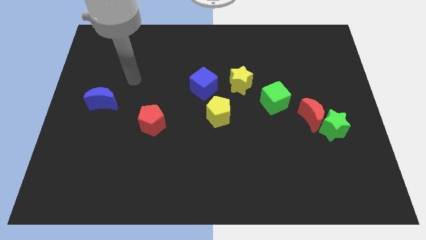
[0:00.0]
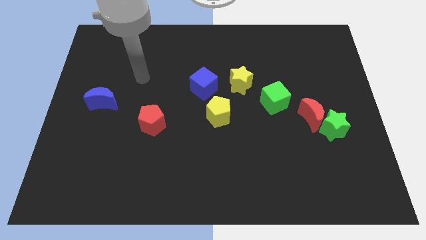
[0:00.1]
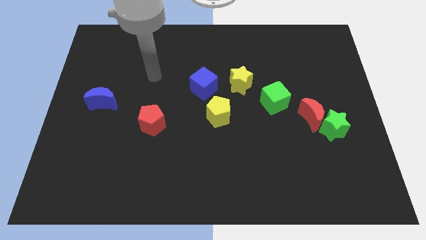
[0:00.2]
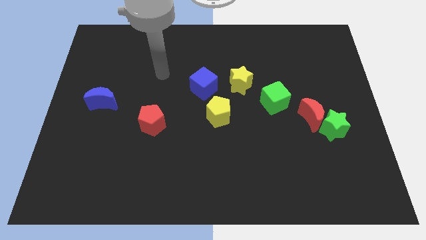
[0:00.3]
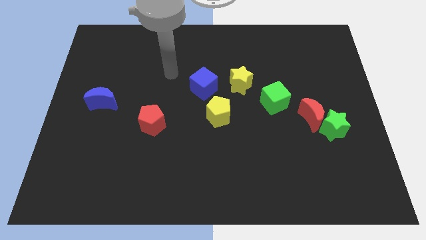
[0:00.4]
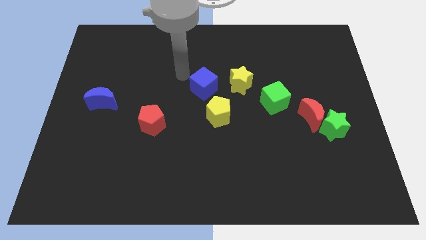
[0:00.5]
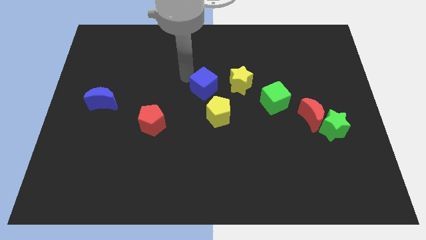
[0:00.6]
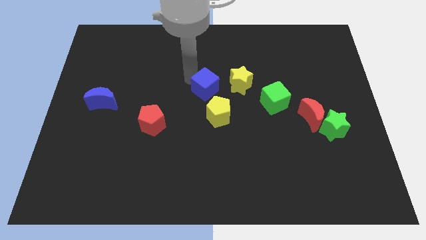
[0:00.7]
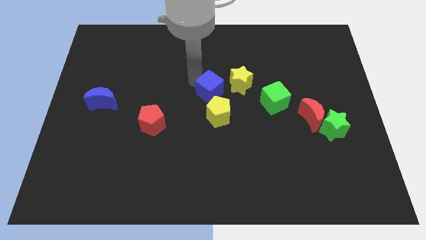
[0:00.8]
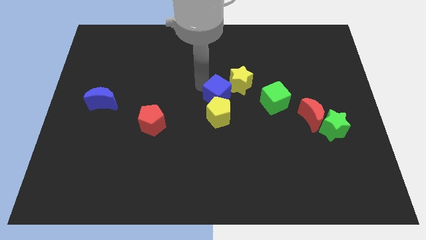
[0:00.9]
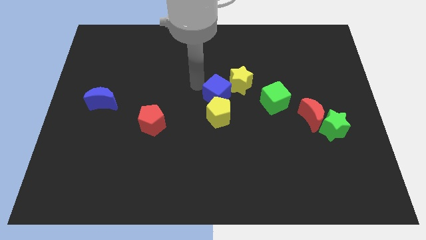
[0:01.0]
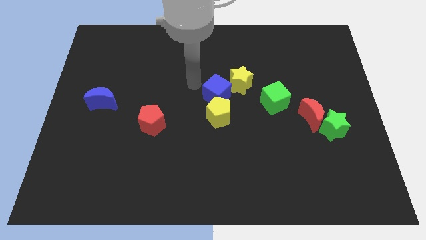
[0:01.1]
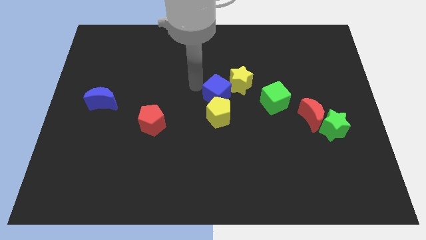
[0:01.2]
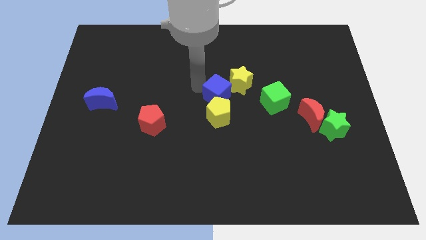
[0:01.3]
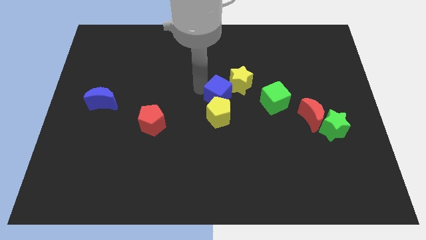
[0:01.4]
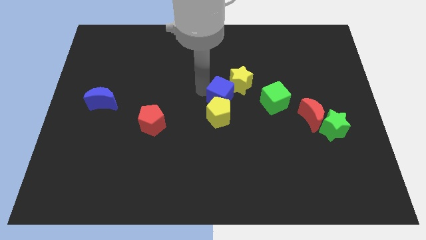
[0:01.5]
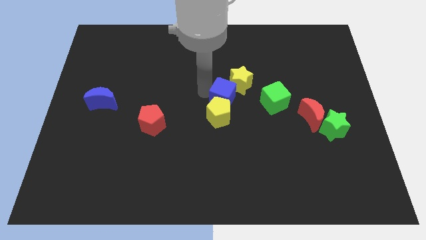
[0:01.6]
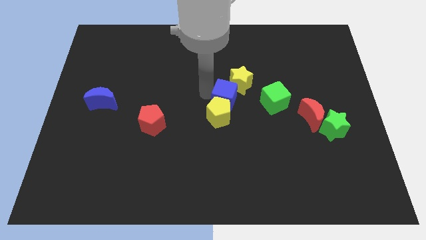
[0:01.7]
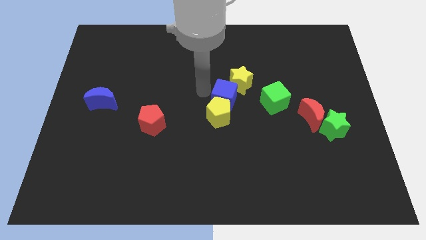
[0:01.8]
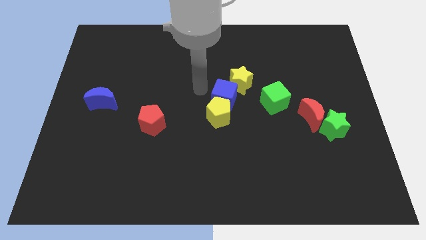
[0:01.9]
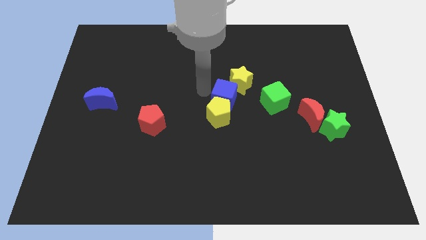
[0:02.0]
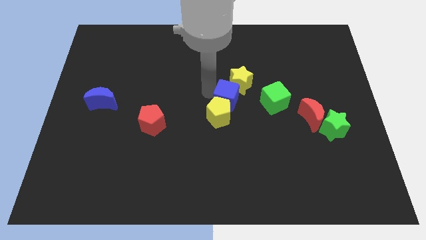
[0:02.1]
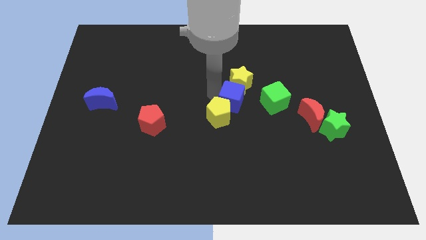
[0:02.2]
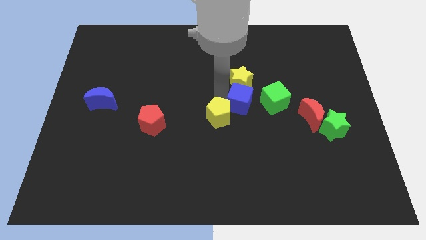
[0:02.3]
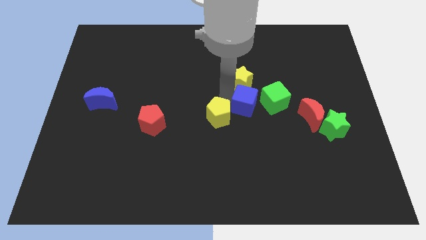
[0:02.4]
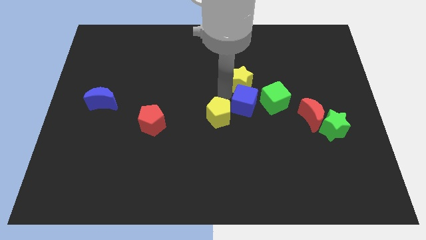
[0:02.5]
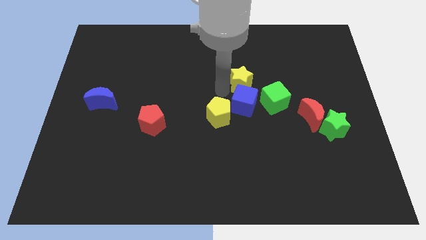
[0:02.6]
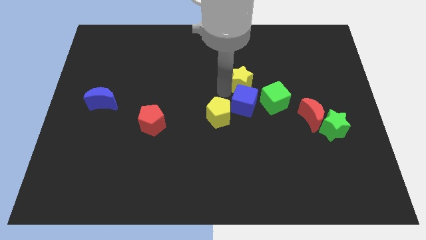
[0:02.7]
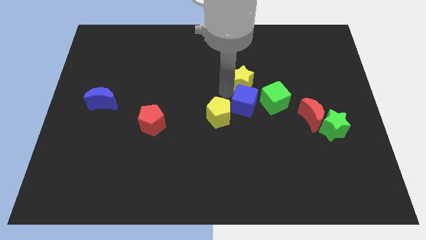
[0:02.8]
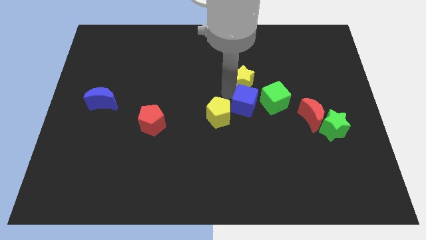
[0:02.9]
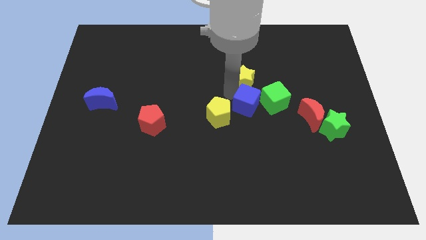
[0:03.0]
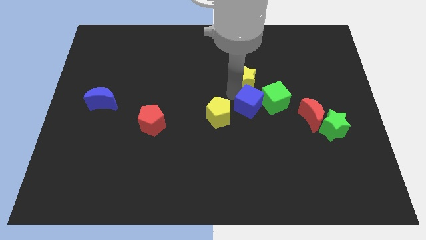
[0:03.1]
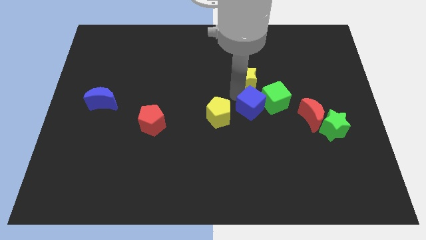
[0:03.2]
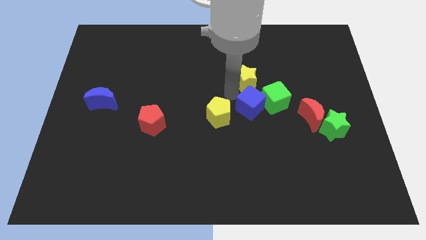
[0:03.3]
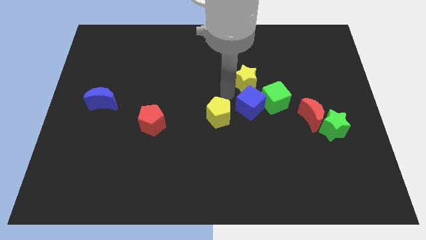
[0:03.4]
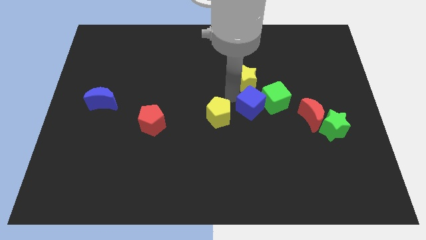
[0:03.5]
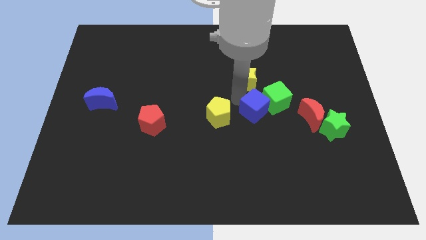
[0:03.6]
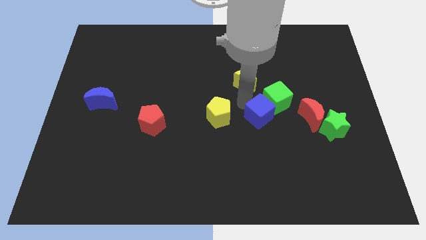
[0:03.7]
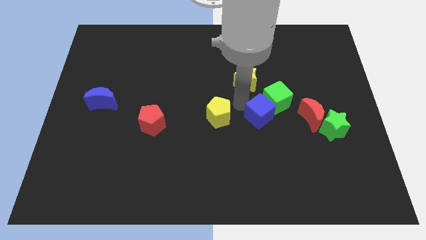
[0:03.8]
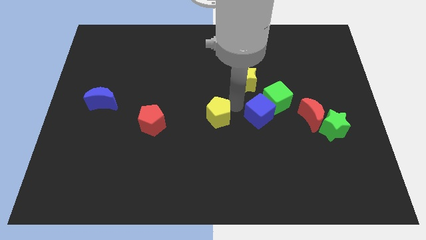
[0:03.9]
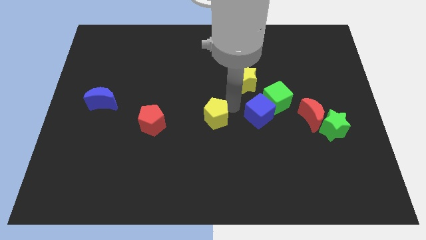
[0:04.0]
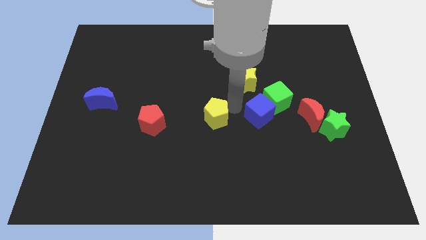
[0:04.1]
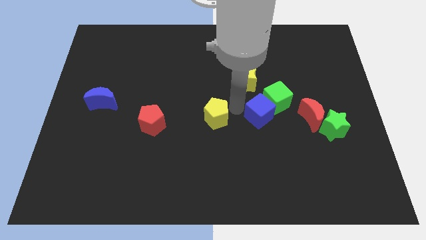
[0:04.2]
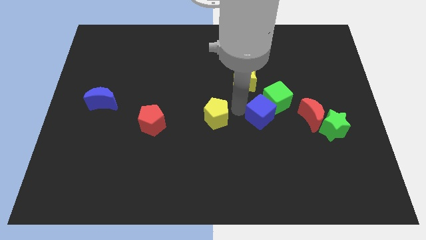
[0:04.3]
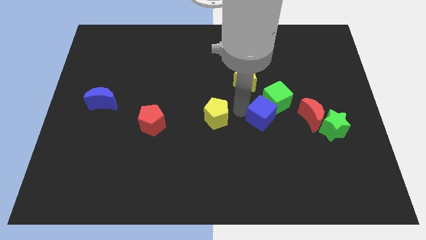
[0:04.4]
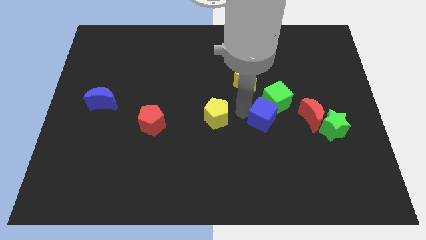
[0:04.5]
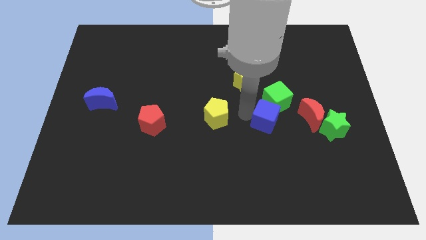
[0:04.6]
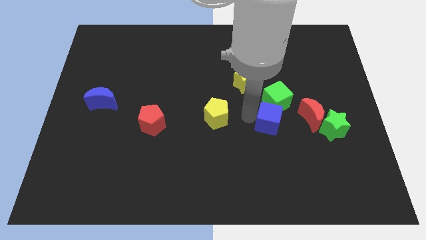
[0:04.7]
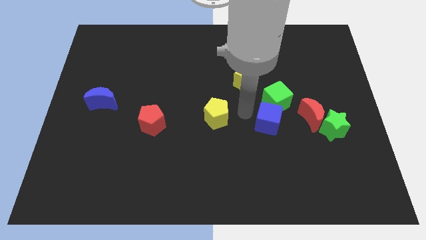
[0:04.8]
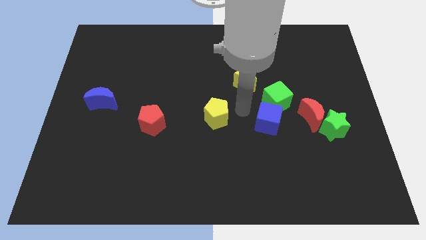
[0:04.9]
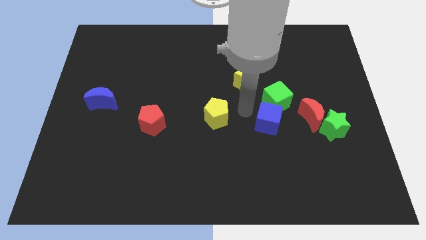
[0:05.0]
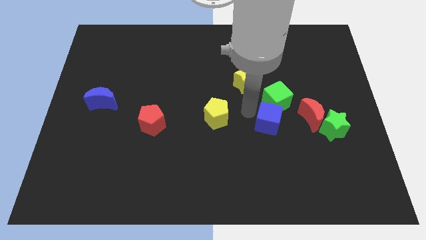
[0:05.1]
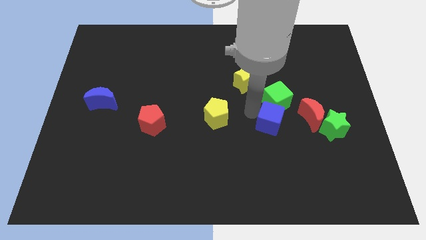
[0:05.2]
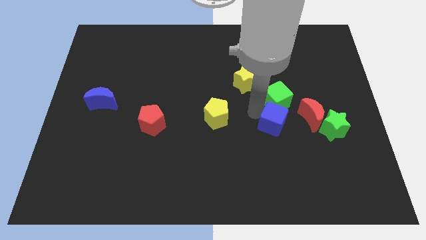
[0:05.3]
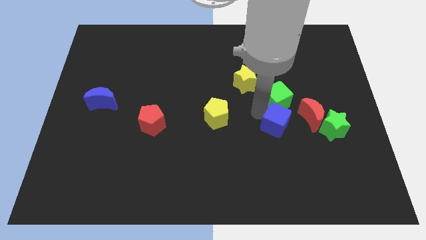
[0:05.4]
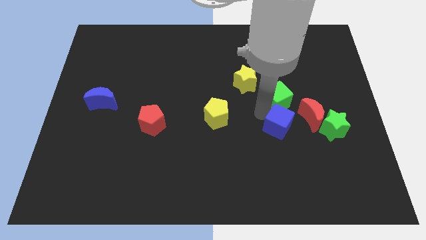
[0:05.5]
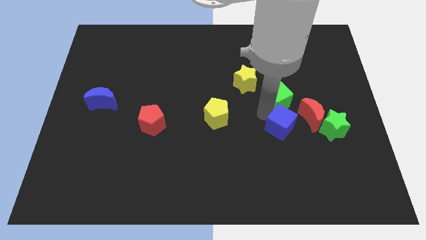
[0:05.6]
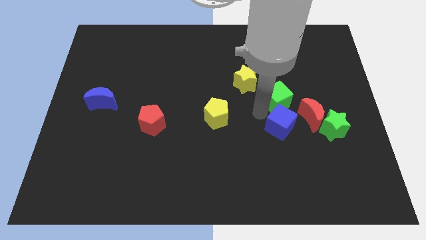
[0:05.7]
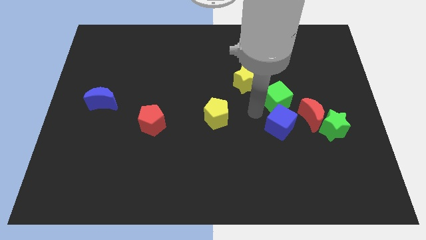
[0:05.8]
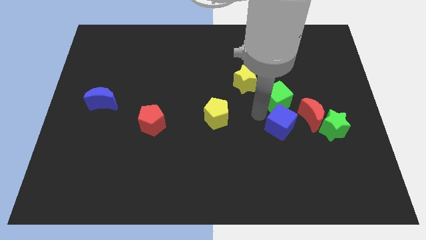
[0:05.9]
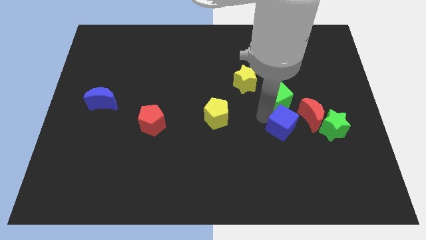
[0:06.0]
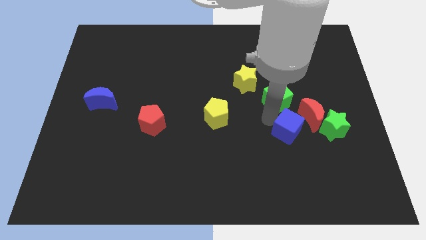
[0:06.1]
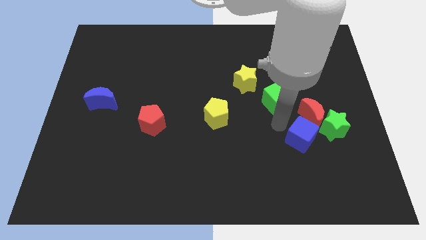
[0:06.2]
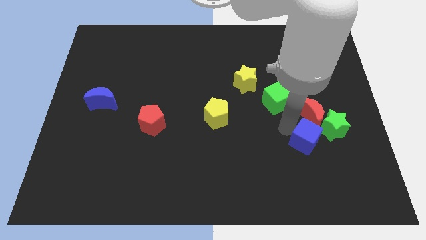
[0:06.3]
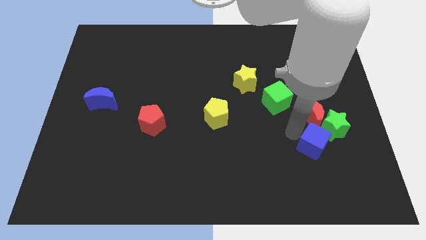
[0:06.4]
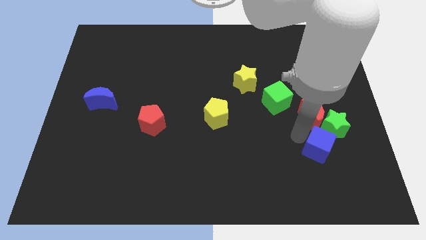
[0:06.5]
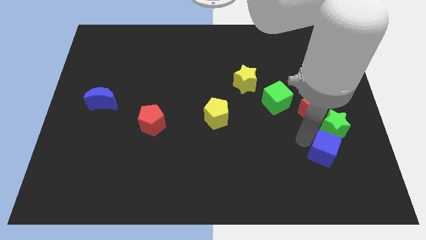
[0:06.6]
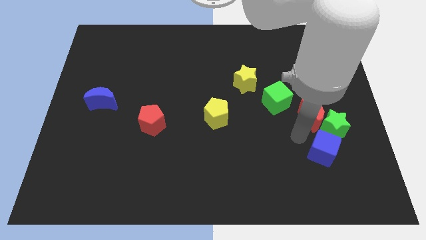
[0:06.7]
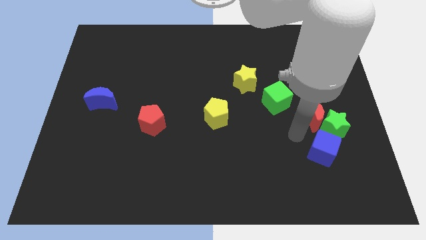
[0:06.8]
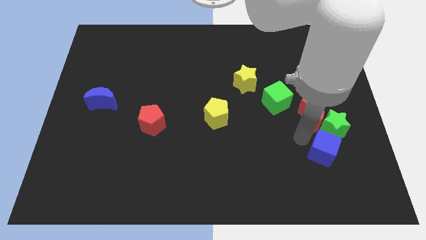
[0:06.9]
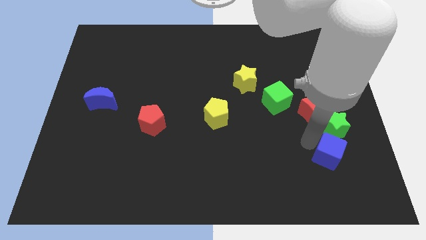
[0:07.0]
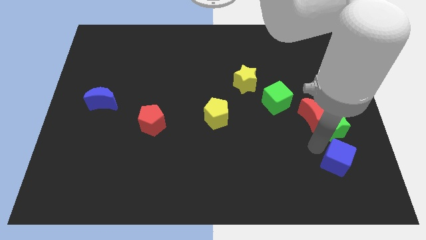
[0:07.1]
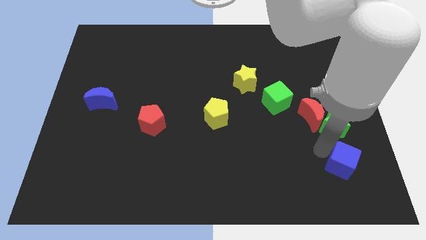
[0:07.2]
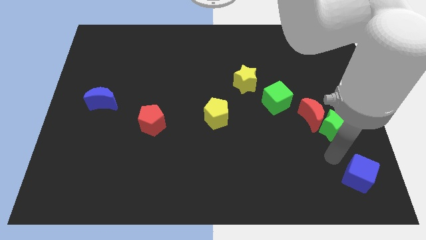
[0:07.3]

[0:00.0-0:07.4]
move the blue cube to the bottom right
